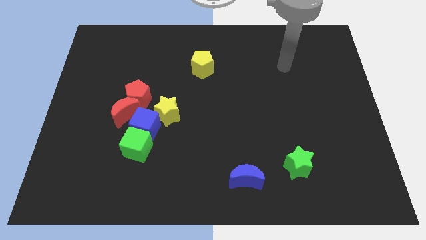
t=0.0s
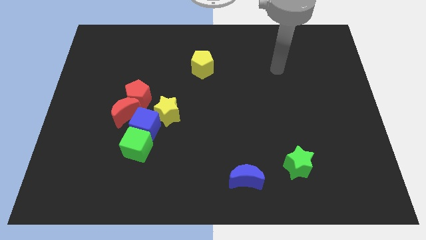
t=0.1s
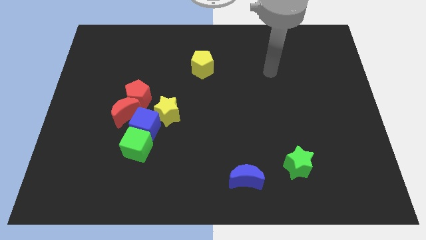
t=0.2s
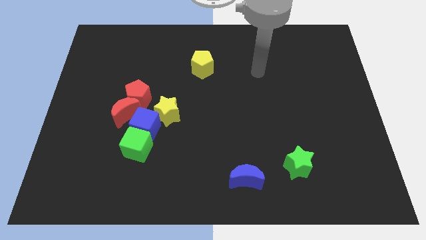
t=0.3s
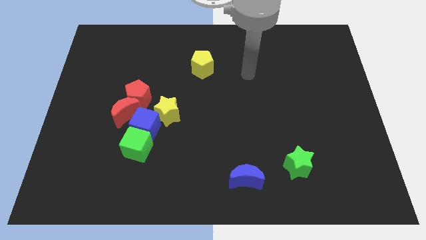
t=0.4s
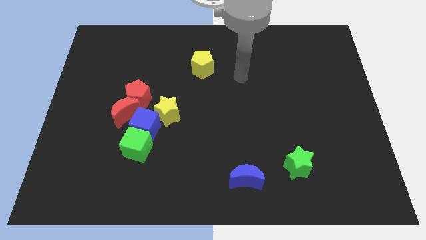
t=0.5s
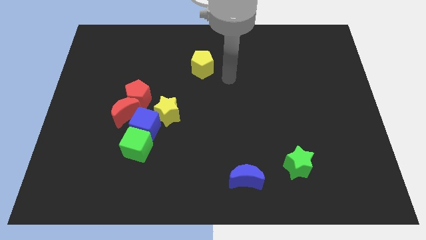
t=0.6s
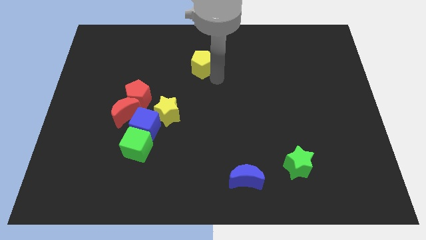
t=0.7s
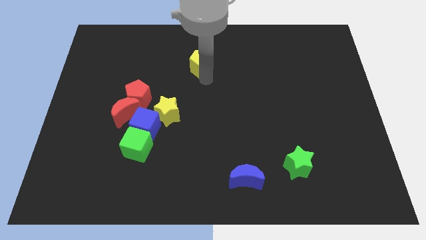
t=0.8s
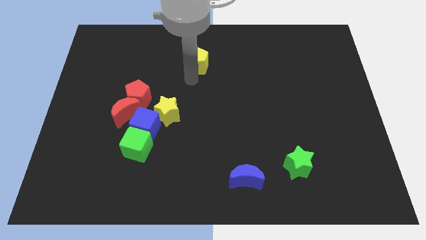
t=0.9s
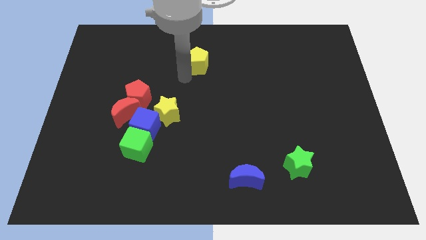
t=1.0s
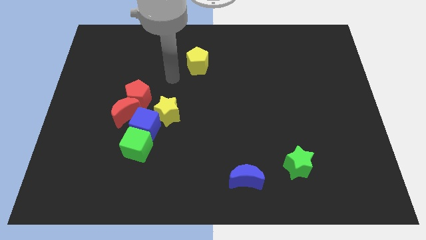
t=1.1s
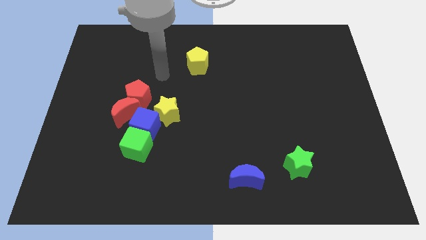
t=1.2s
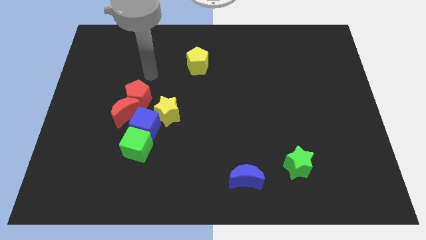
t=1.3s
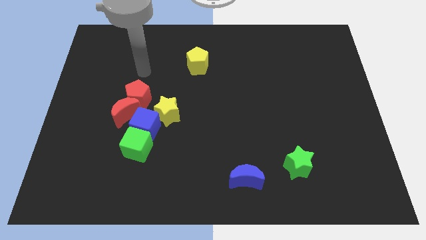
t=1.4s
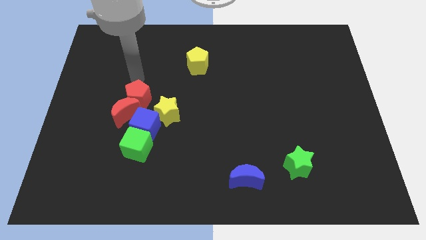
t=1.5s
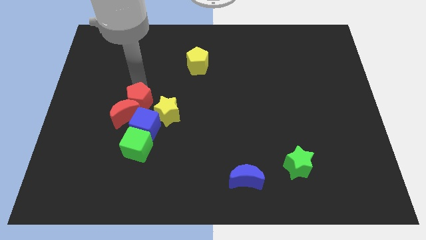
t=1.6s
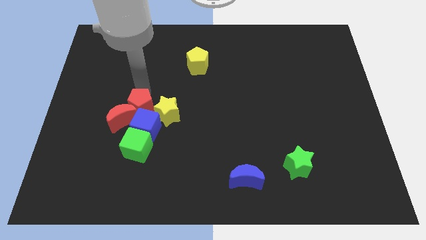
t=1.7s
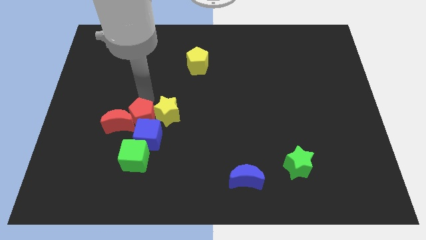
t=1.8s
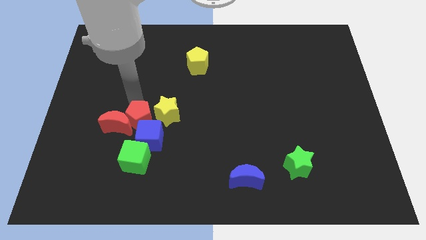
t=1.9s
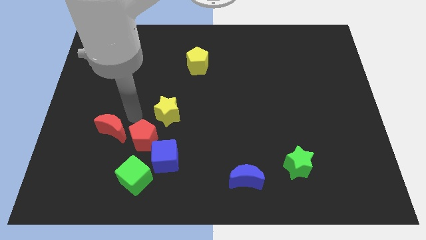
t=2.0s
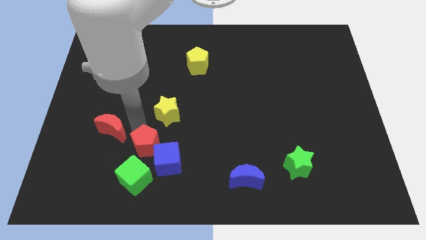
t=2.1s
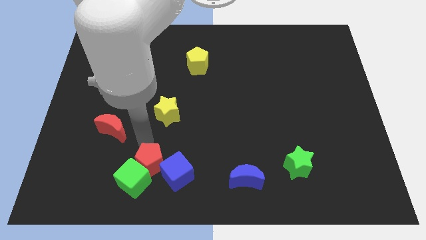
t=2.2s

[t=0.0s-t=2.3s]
separate the blue cube from the clump

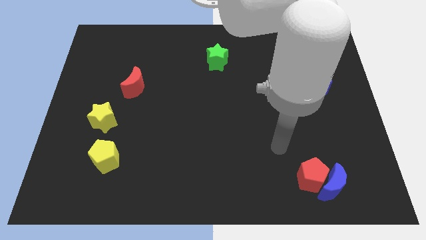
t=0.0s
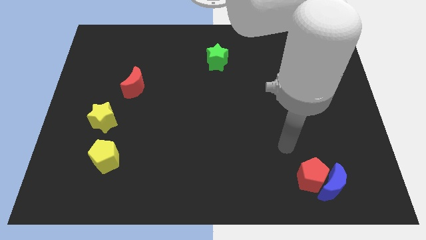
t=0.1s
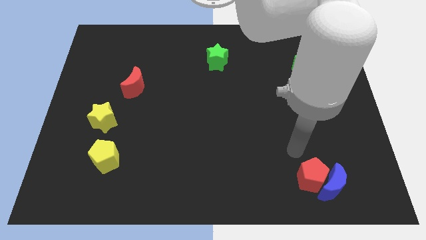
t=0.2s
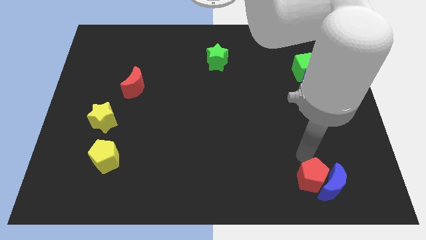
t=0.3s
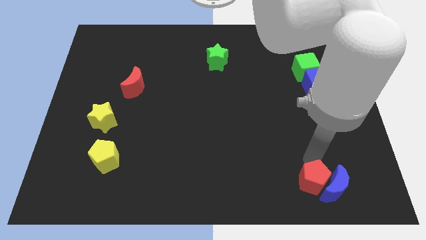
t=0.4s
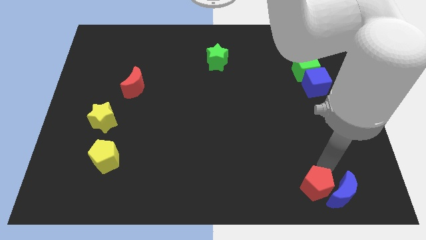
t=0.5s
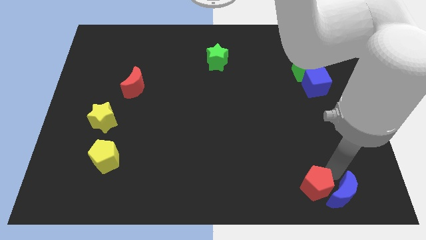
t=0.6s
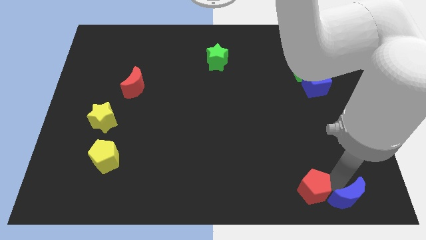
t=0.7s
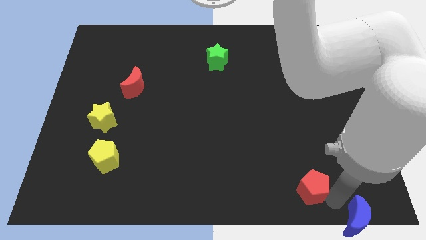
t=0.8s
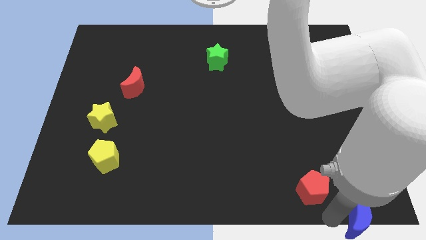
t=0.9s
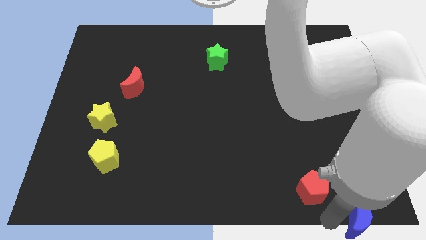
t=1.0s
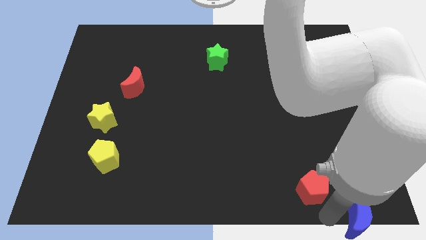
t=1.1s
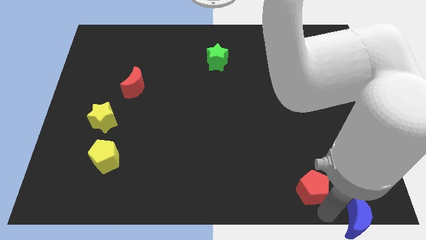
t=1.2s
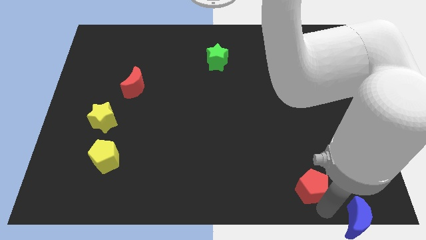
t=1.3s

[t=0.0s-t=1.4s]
separate the red pentagon from the blue moon

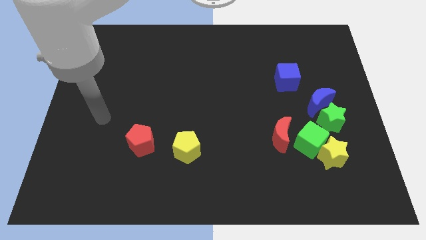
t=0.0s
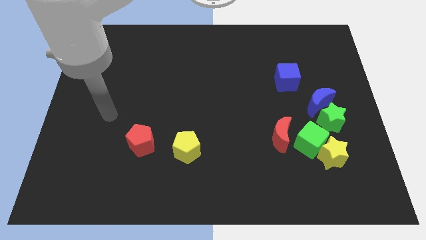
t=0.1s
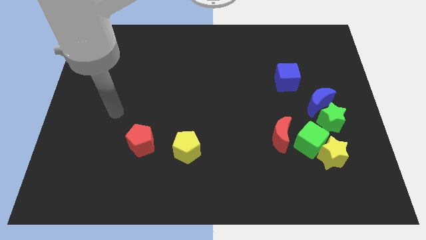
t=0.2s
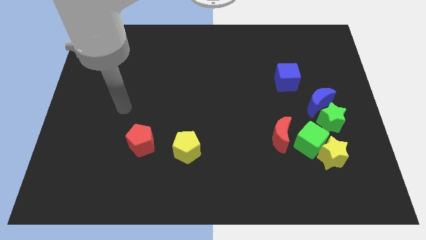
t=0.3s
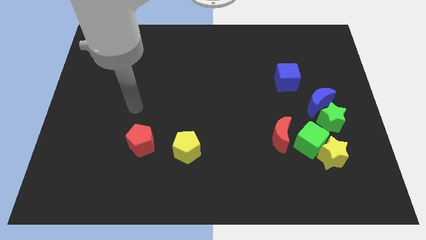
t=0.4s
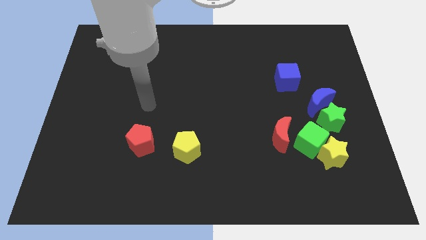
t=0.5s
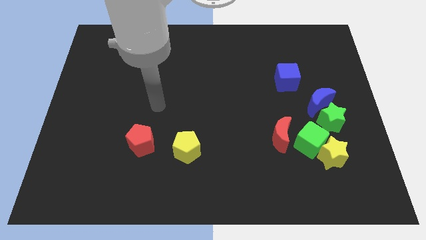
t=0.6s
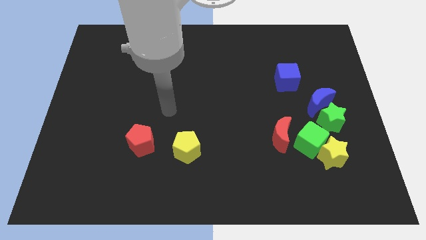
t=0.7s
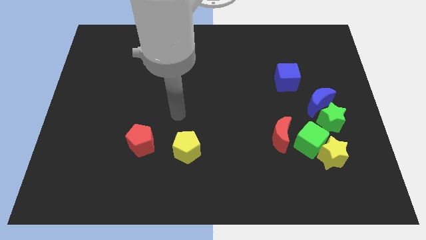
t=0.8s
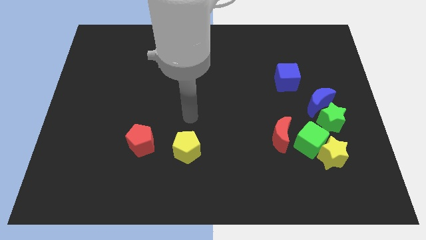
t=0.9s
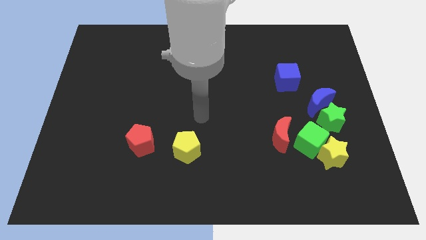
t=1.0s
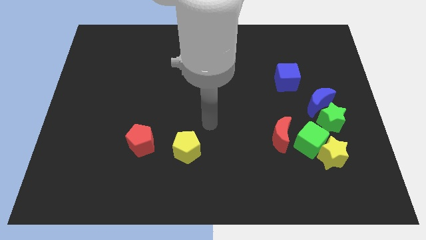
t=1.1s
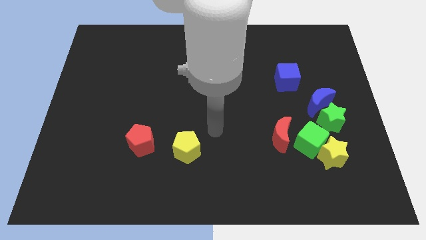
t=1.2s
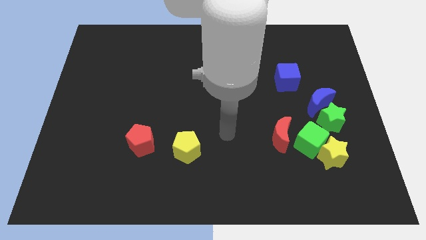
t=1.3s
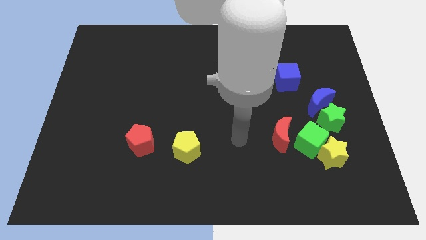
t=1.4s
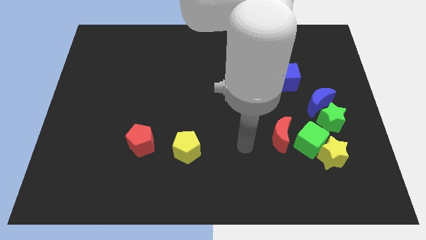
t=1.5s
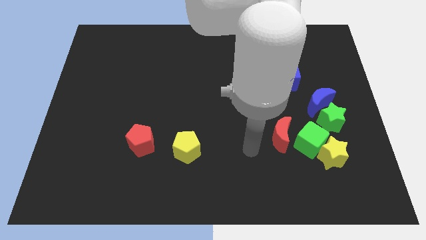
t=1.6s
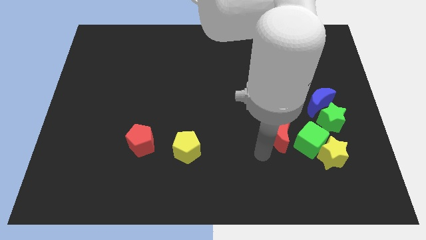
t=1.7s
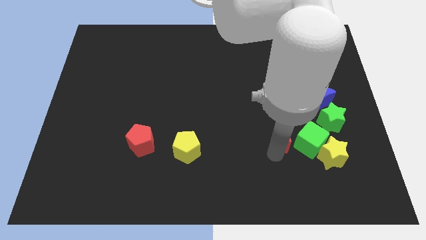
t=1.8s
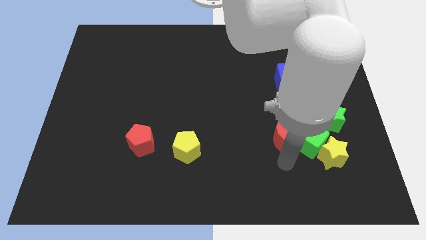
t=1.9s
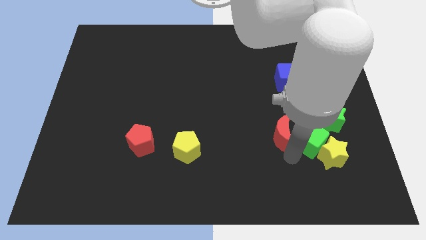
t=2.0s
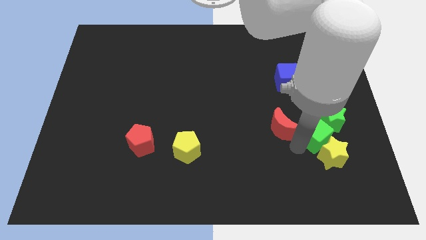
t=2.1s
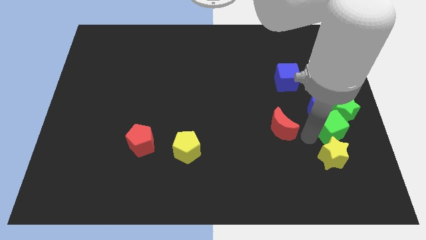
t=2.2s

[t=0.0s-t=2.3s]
move the red moon away from the green cube

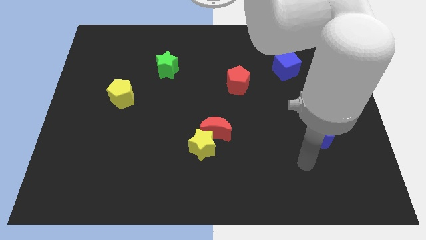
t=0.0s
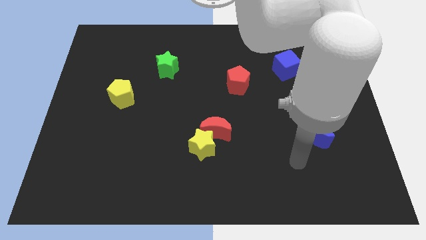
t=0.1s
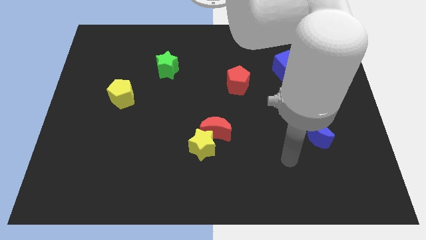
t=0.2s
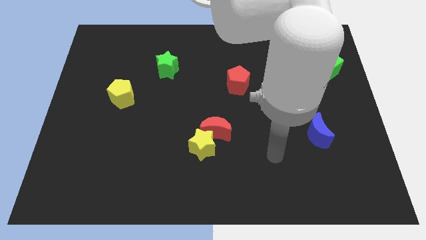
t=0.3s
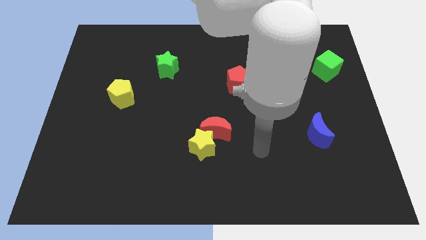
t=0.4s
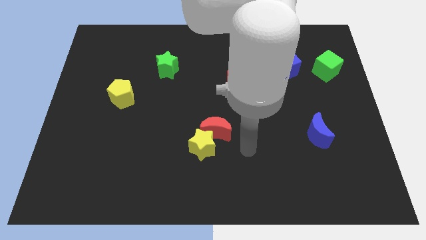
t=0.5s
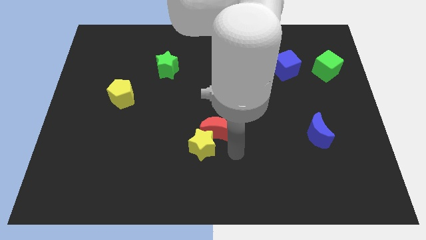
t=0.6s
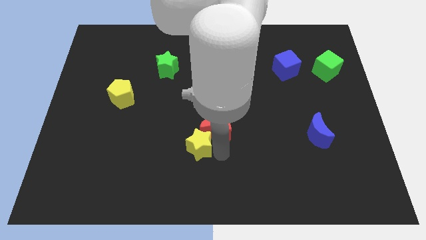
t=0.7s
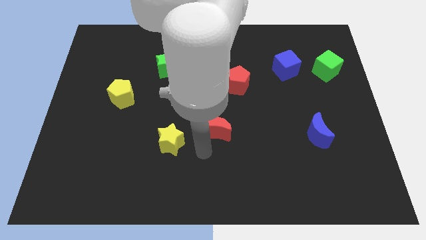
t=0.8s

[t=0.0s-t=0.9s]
pull the red moon apart from the yellow star

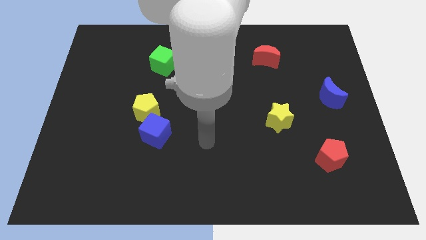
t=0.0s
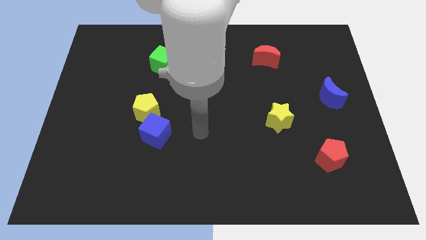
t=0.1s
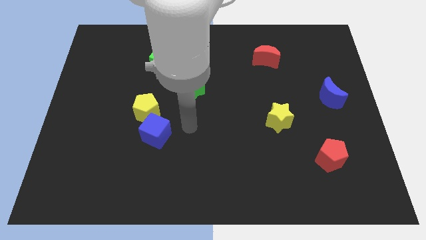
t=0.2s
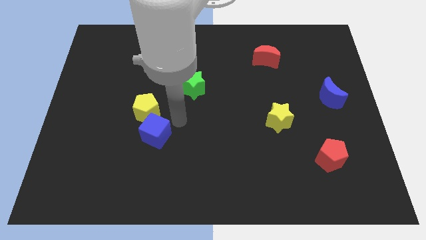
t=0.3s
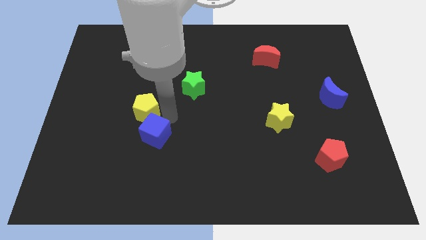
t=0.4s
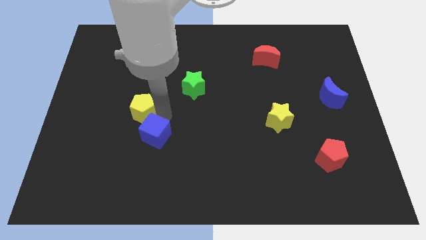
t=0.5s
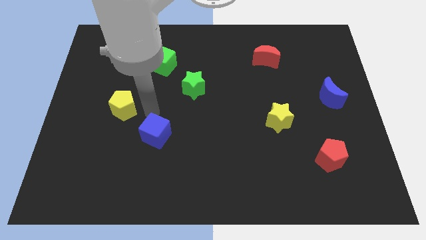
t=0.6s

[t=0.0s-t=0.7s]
move the blue cube away from the yellow pentagon

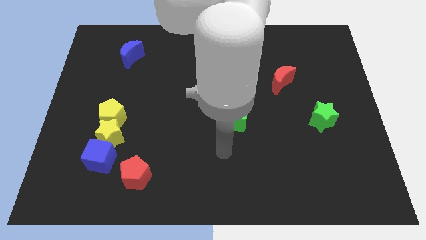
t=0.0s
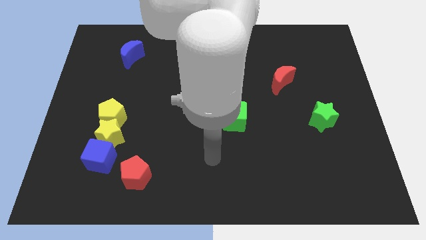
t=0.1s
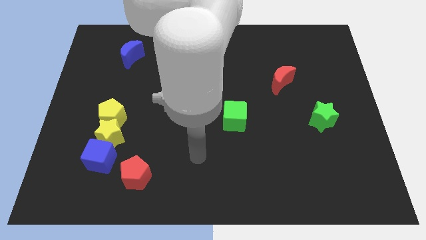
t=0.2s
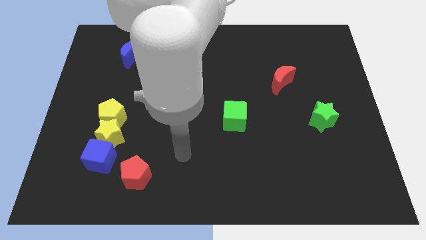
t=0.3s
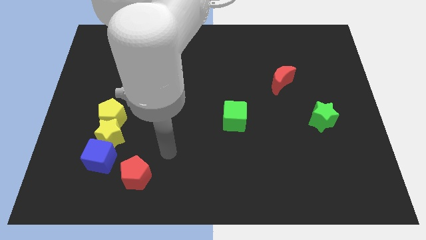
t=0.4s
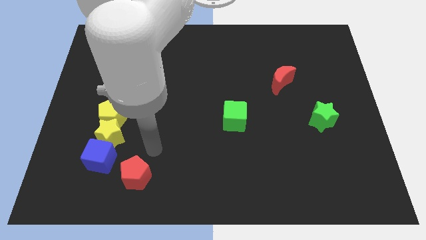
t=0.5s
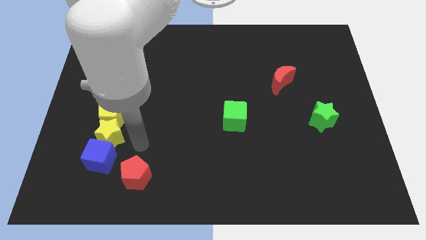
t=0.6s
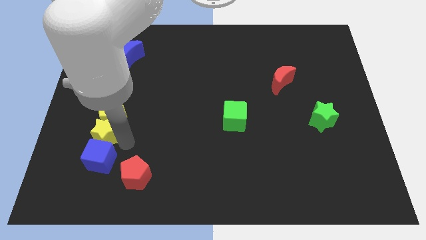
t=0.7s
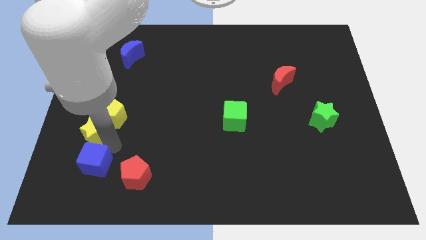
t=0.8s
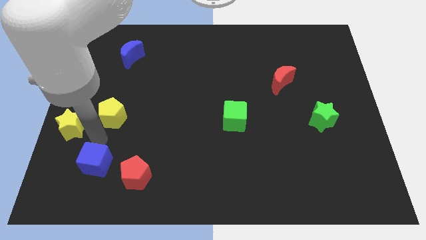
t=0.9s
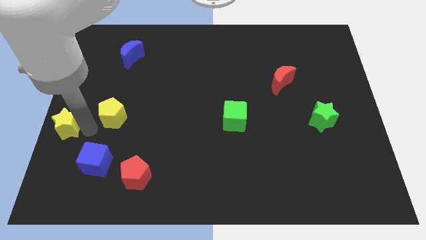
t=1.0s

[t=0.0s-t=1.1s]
move the yellow pentagon away from the yellow star

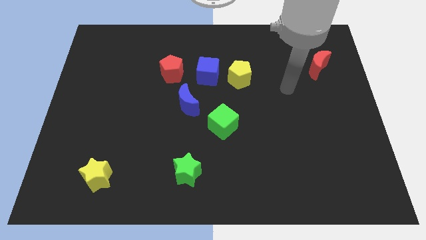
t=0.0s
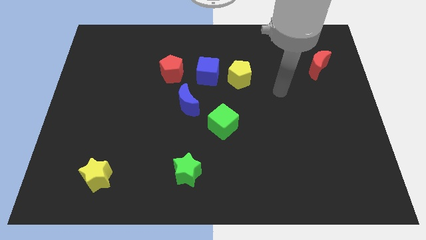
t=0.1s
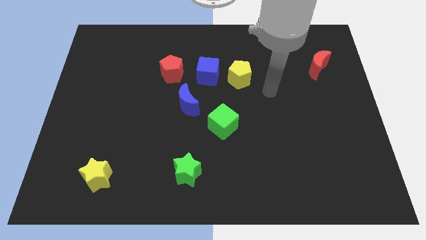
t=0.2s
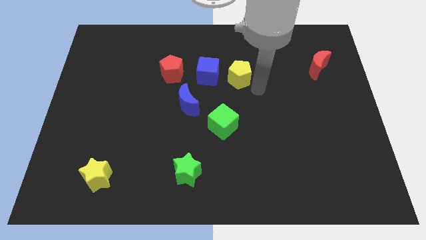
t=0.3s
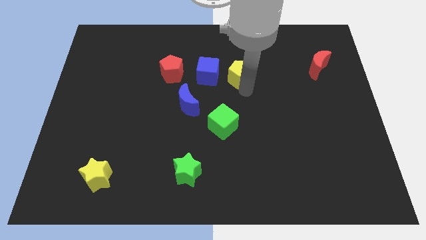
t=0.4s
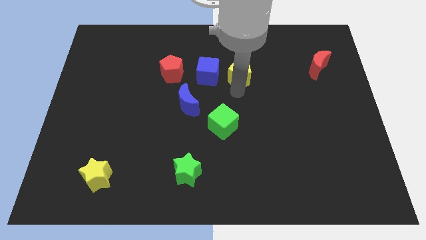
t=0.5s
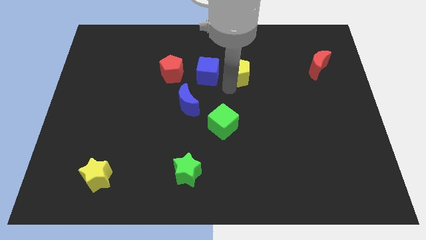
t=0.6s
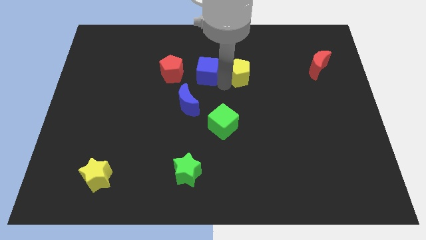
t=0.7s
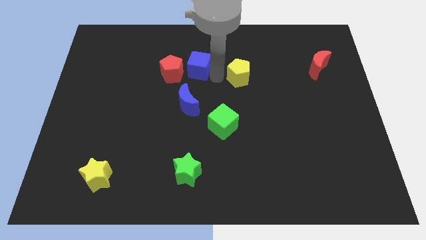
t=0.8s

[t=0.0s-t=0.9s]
separate the yellow pentagon from the blue cube
